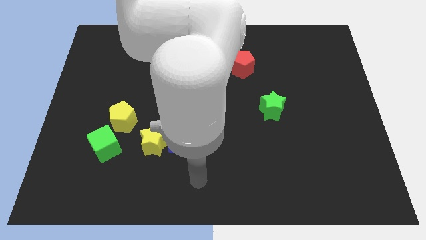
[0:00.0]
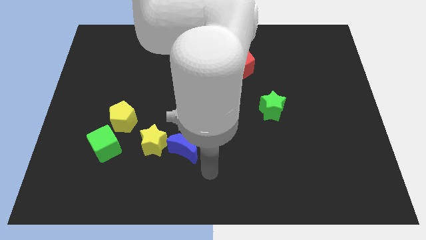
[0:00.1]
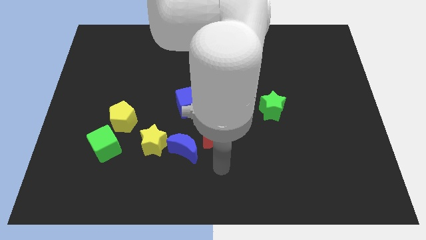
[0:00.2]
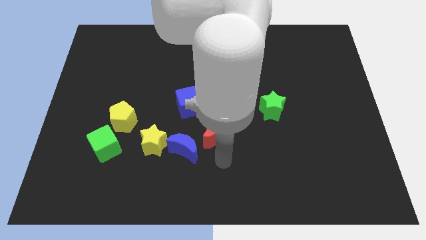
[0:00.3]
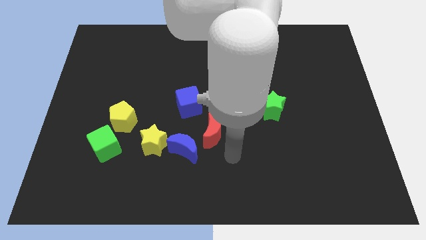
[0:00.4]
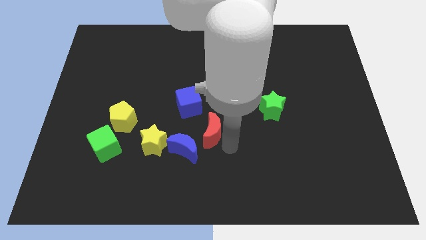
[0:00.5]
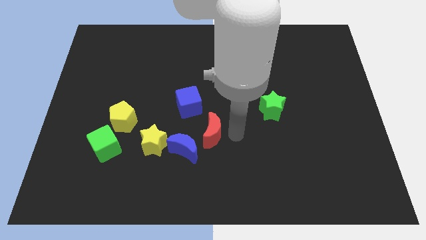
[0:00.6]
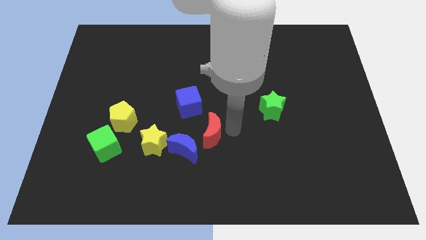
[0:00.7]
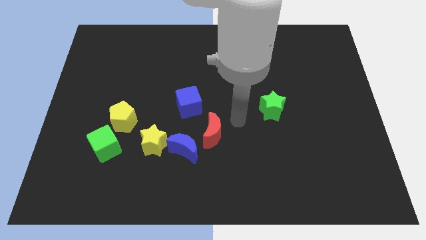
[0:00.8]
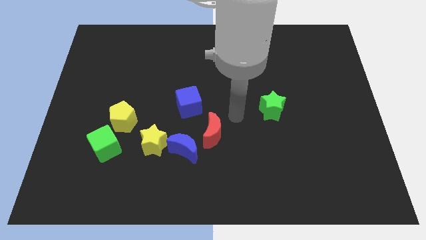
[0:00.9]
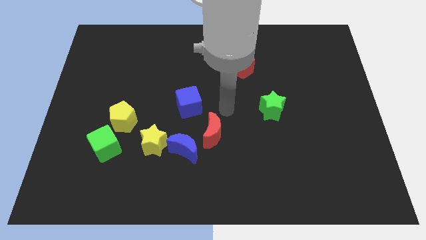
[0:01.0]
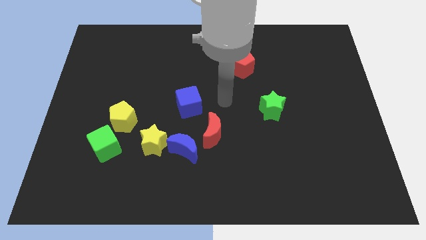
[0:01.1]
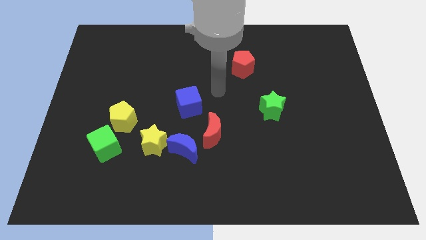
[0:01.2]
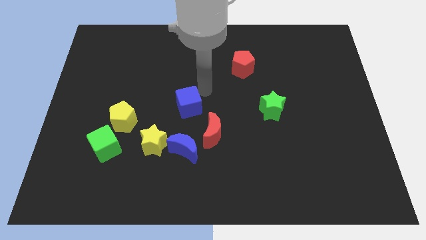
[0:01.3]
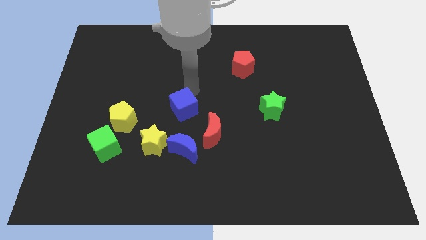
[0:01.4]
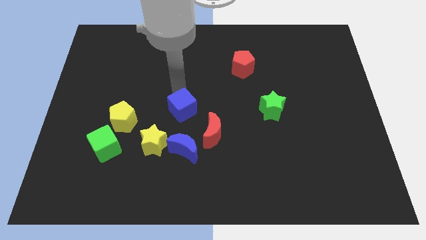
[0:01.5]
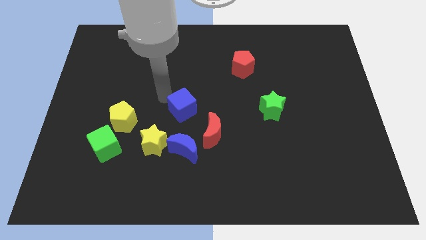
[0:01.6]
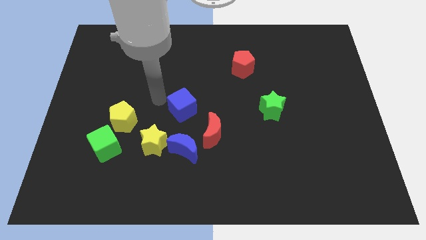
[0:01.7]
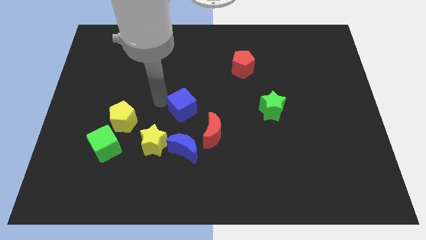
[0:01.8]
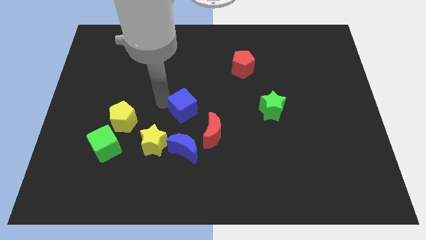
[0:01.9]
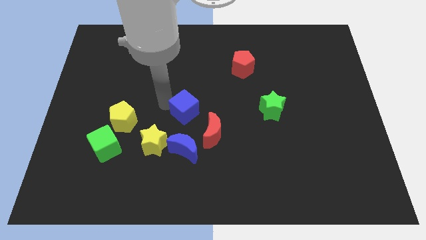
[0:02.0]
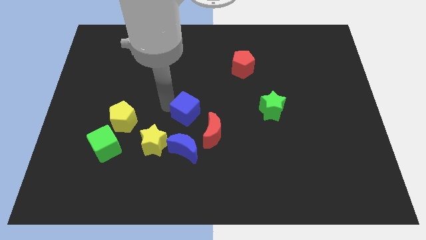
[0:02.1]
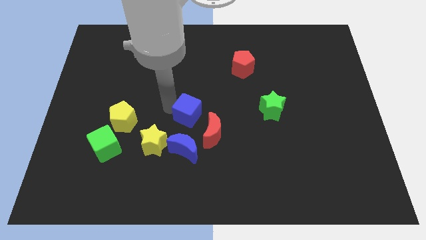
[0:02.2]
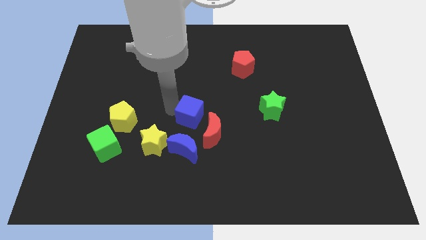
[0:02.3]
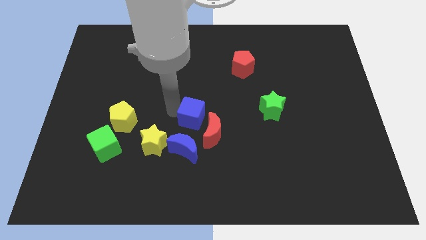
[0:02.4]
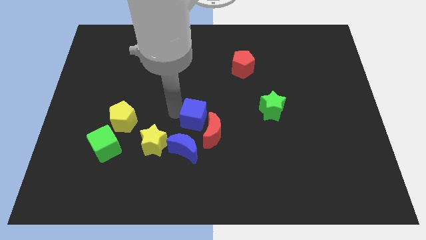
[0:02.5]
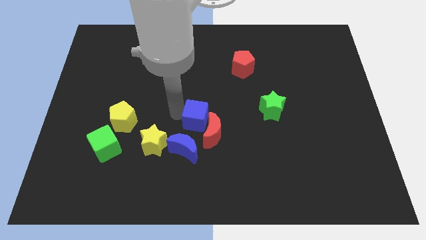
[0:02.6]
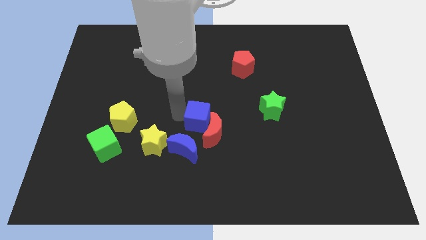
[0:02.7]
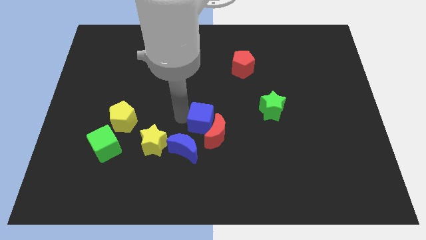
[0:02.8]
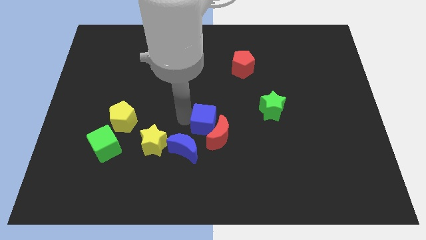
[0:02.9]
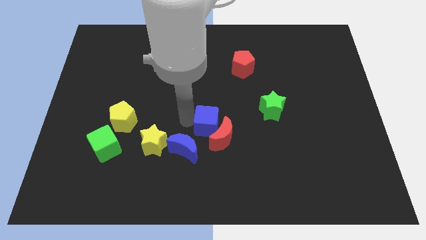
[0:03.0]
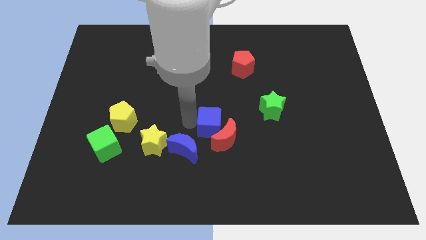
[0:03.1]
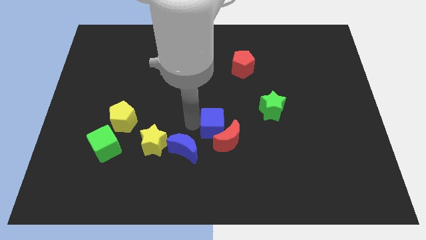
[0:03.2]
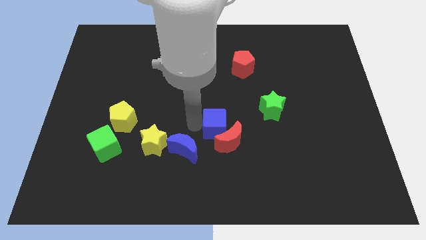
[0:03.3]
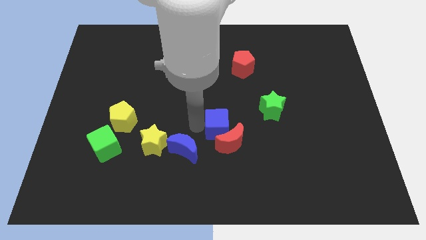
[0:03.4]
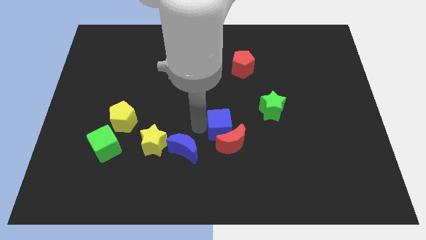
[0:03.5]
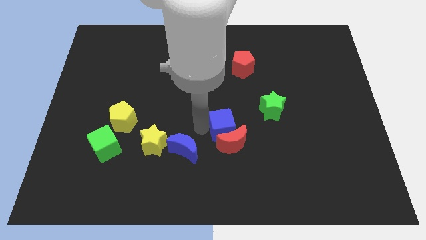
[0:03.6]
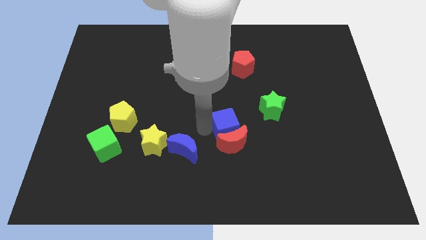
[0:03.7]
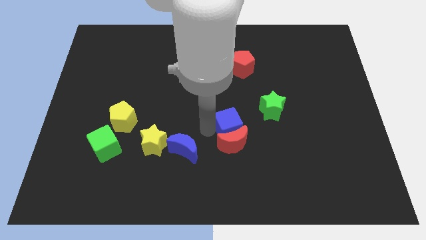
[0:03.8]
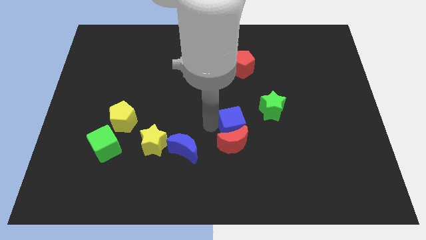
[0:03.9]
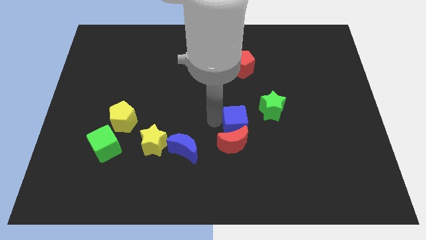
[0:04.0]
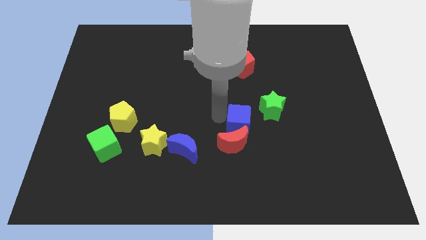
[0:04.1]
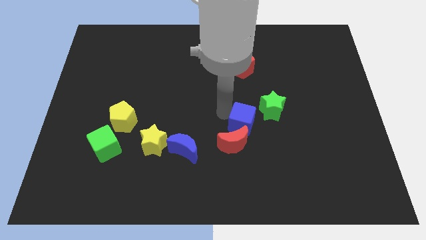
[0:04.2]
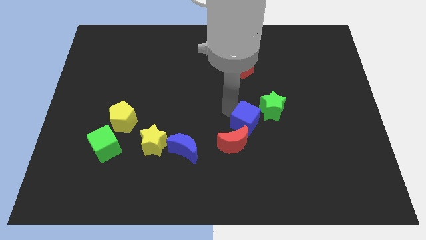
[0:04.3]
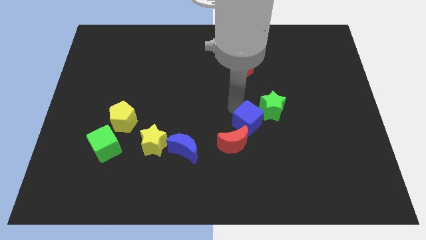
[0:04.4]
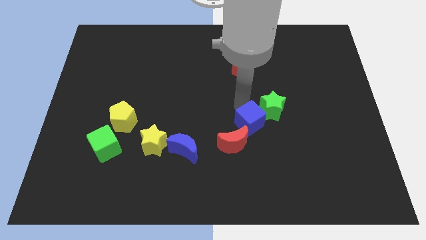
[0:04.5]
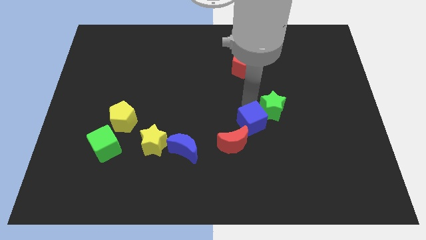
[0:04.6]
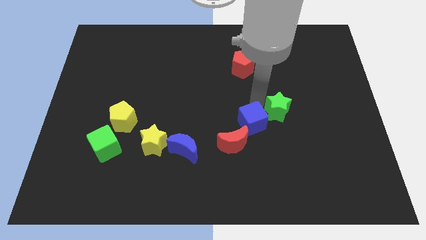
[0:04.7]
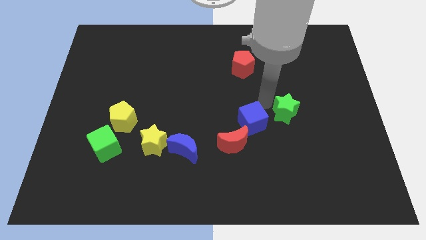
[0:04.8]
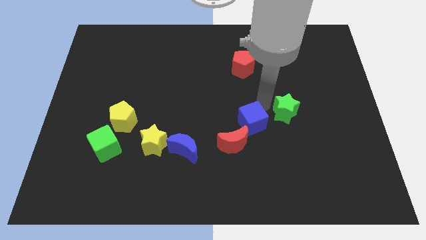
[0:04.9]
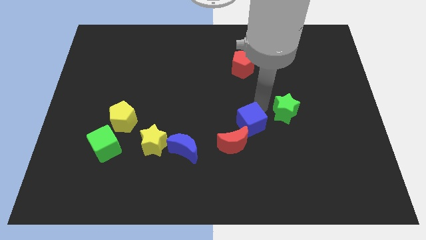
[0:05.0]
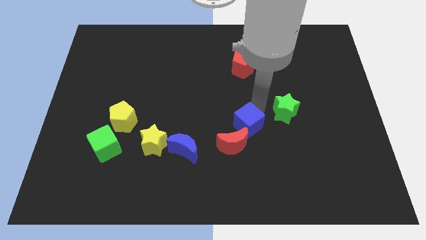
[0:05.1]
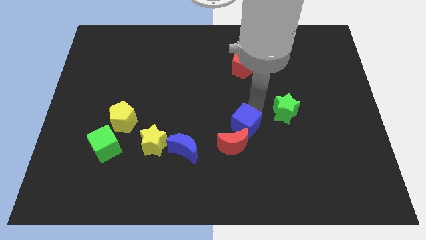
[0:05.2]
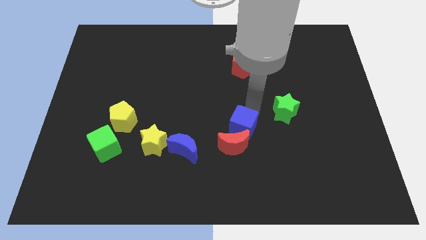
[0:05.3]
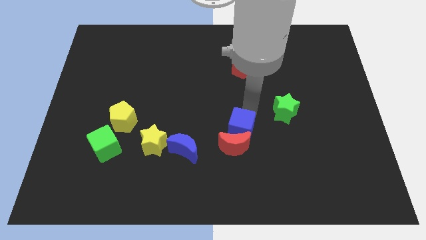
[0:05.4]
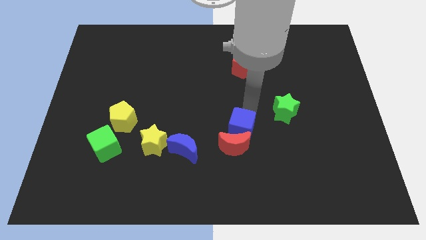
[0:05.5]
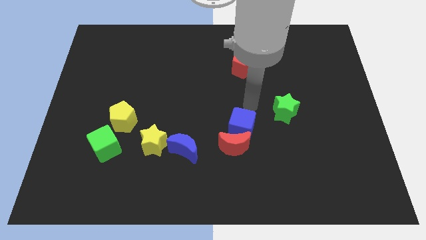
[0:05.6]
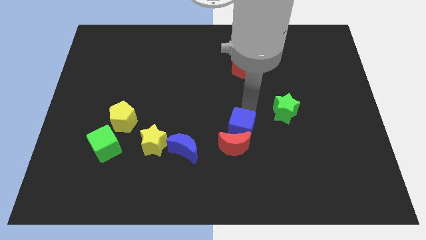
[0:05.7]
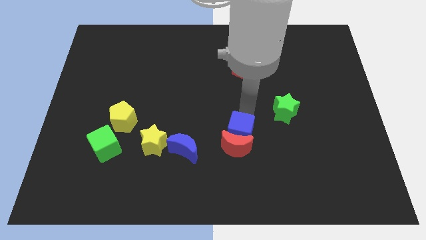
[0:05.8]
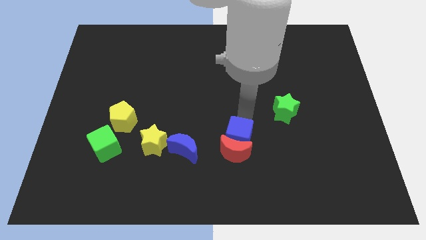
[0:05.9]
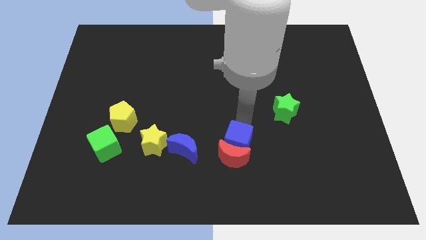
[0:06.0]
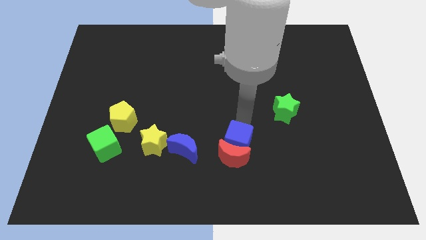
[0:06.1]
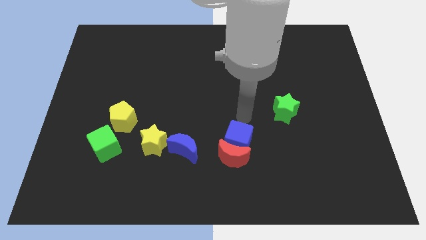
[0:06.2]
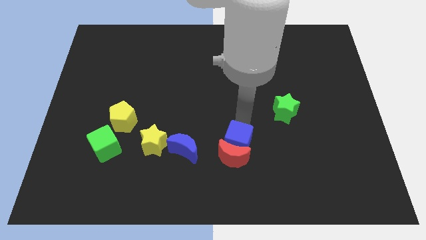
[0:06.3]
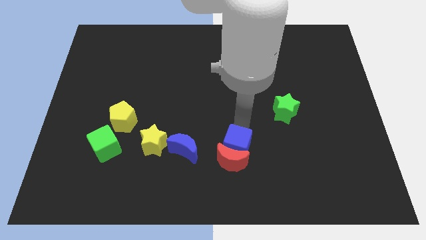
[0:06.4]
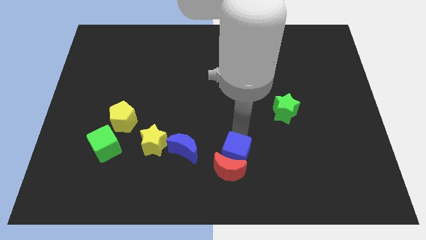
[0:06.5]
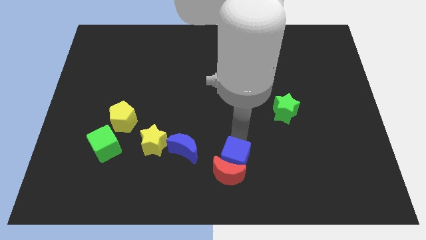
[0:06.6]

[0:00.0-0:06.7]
push the blue cube to the bottom

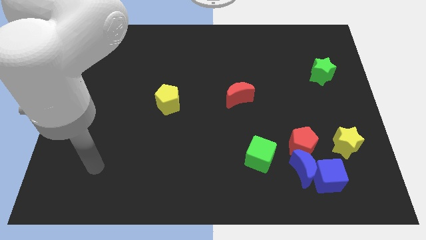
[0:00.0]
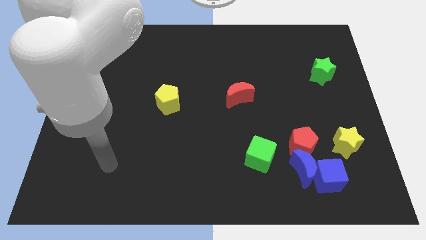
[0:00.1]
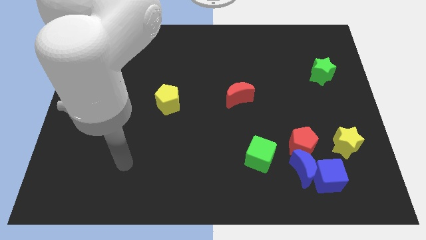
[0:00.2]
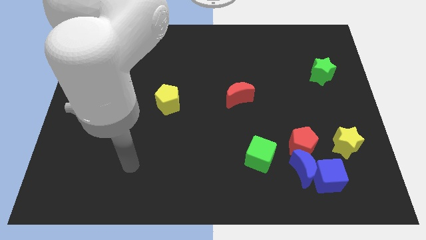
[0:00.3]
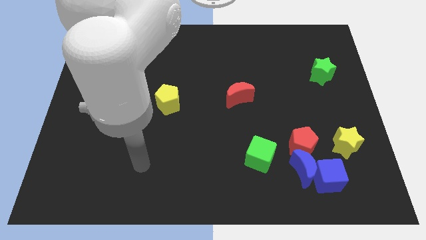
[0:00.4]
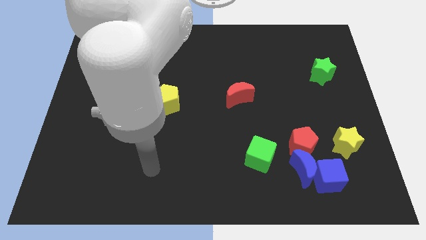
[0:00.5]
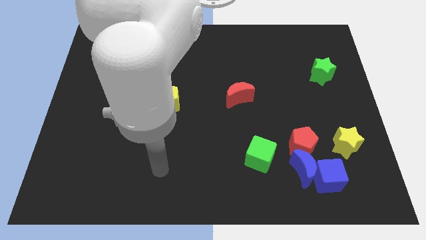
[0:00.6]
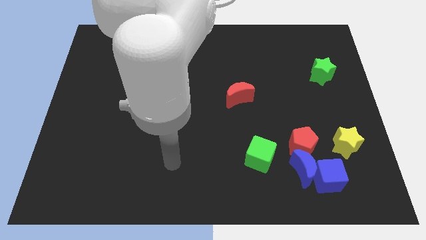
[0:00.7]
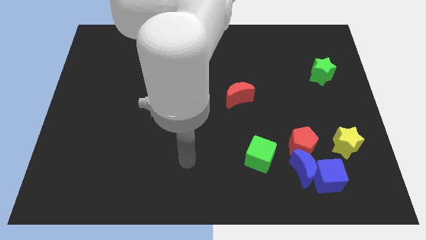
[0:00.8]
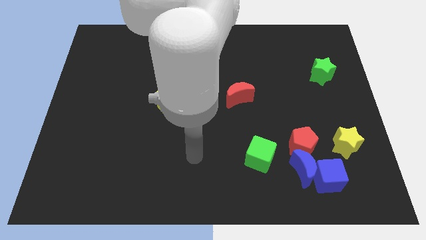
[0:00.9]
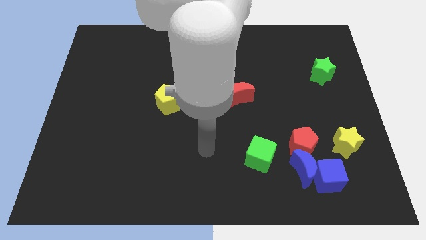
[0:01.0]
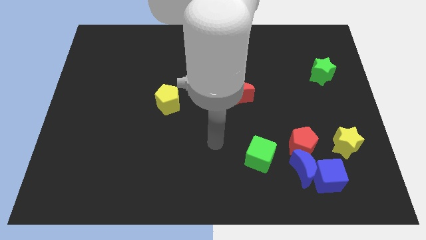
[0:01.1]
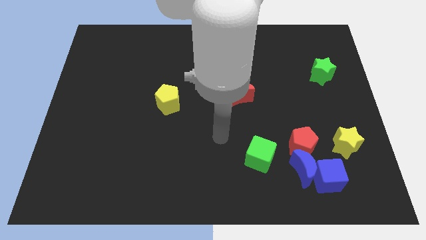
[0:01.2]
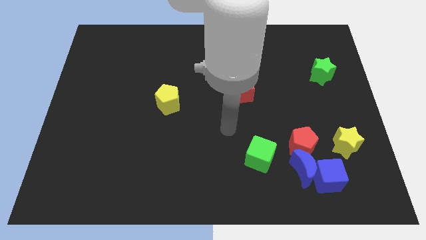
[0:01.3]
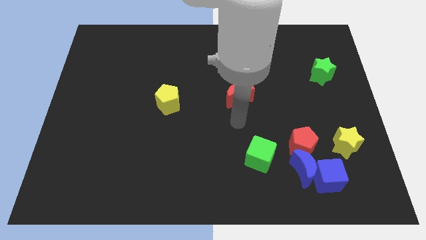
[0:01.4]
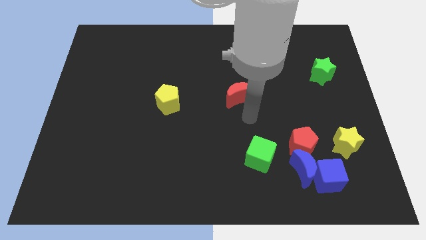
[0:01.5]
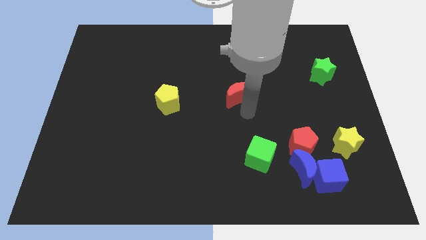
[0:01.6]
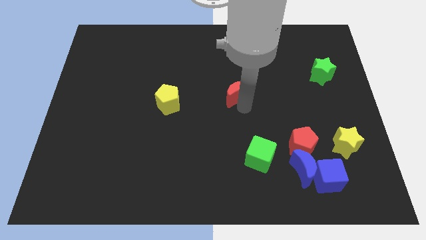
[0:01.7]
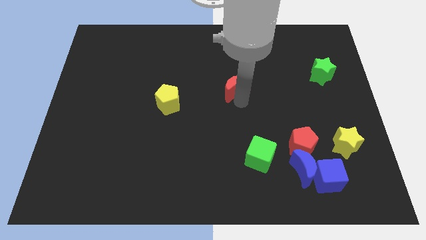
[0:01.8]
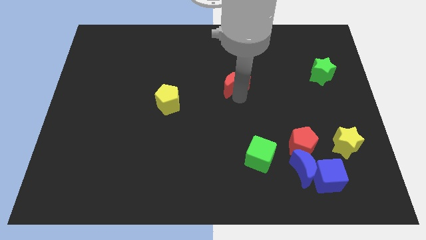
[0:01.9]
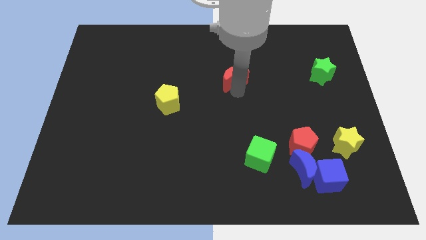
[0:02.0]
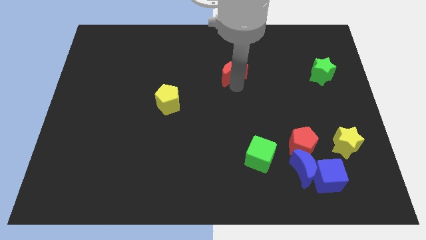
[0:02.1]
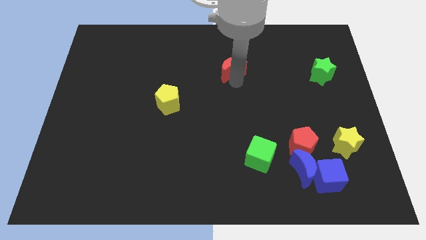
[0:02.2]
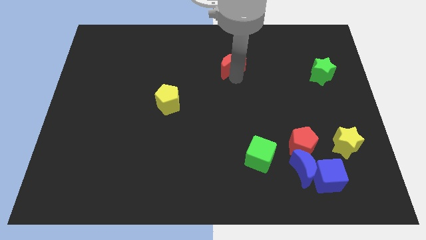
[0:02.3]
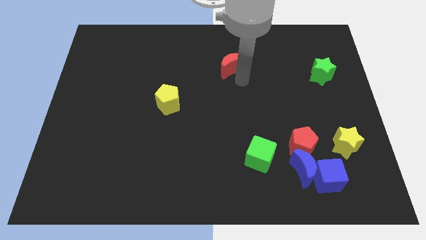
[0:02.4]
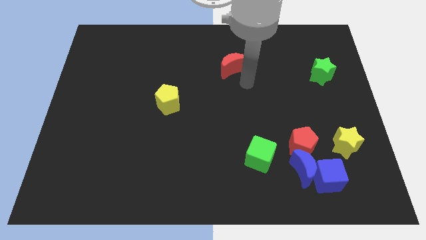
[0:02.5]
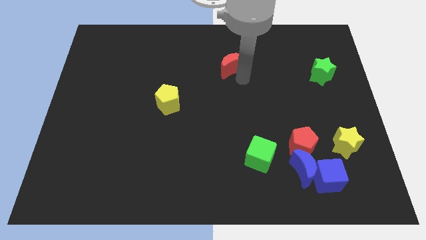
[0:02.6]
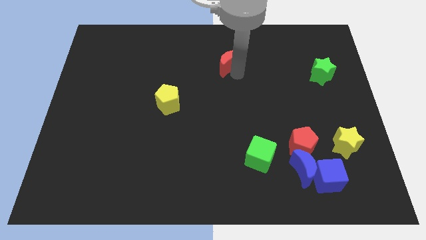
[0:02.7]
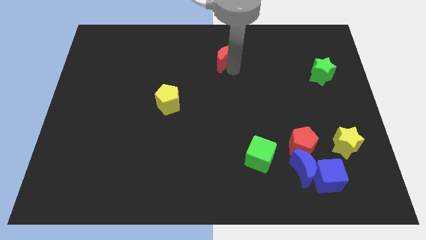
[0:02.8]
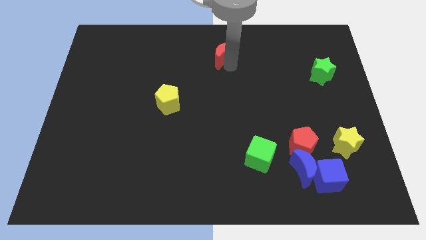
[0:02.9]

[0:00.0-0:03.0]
slide the red moon to the towards your base
